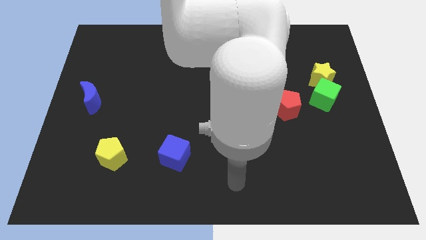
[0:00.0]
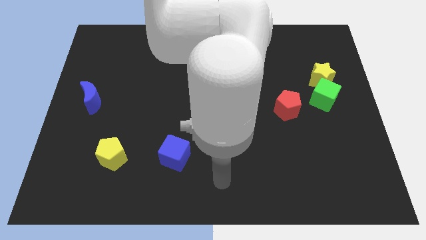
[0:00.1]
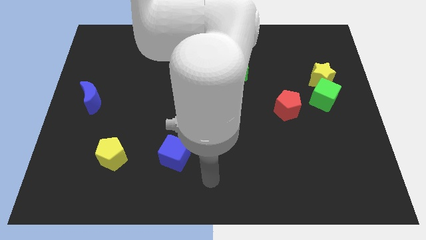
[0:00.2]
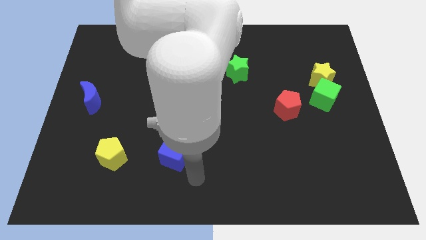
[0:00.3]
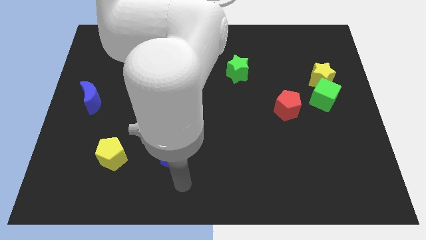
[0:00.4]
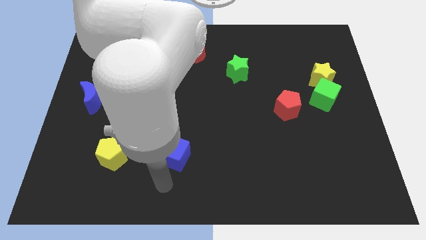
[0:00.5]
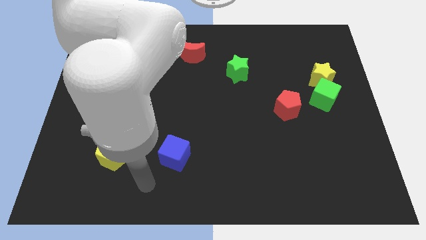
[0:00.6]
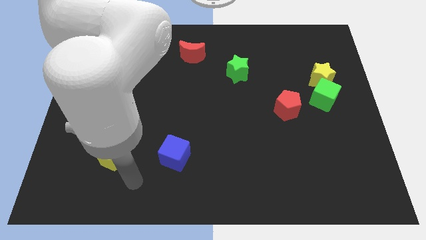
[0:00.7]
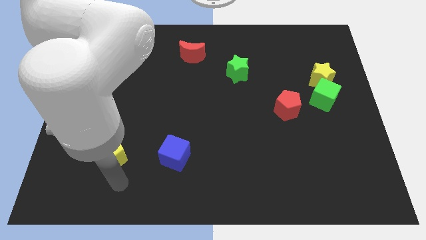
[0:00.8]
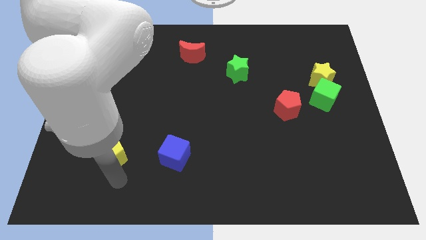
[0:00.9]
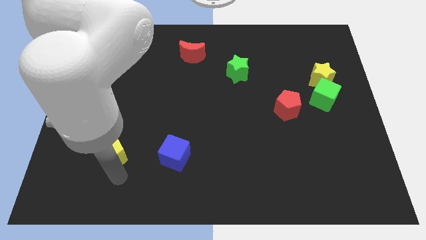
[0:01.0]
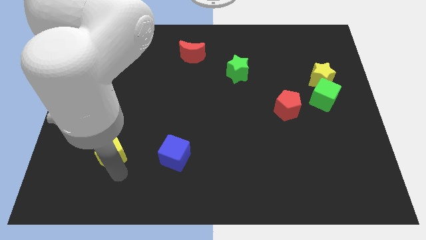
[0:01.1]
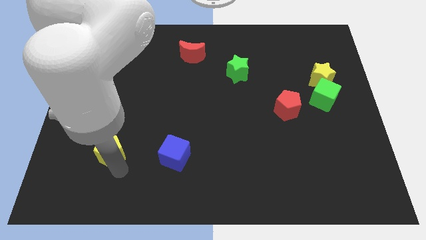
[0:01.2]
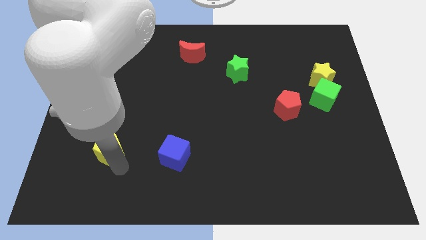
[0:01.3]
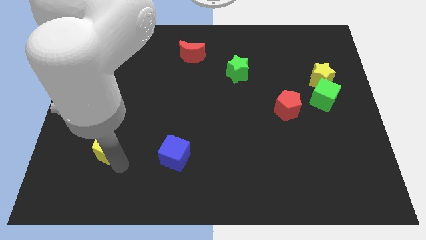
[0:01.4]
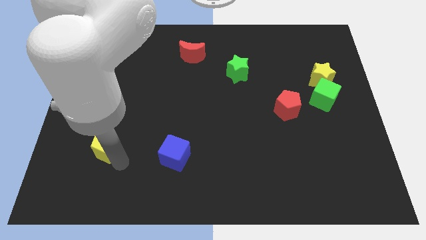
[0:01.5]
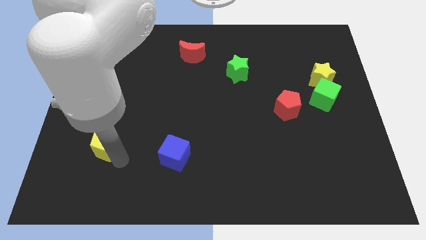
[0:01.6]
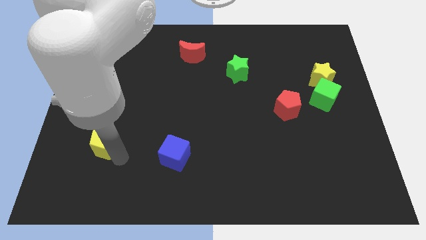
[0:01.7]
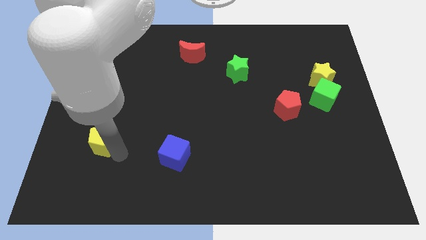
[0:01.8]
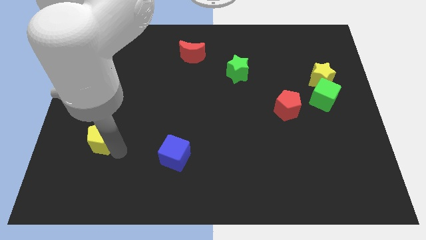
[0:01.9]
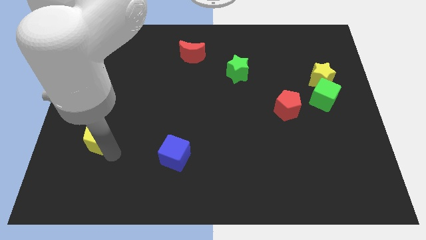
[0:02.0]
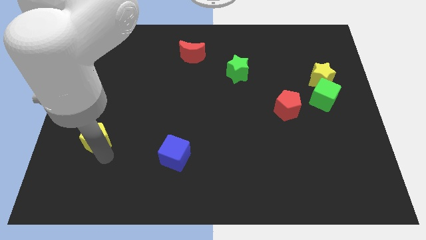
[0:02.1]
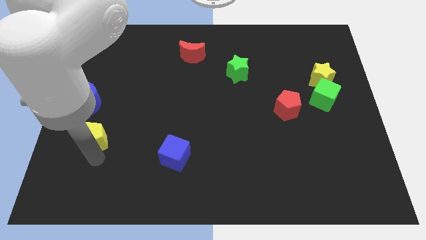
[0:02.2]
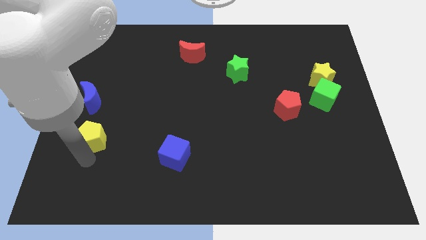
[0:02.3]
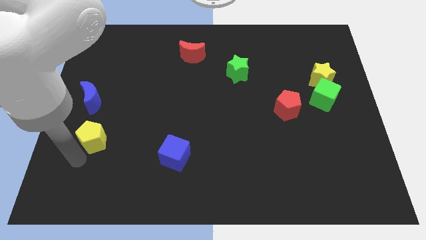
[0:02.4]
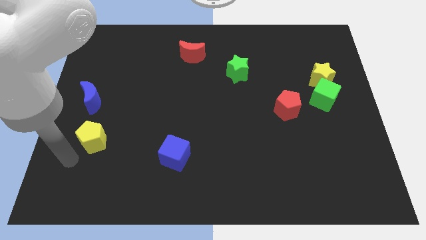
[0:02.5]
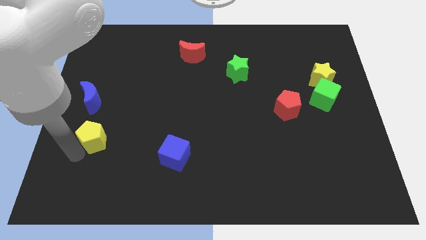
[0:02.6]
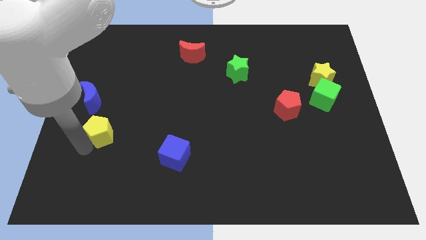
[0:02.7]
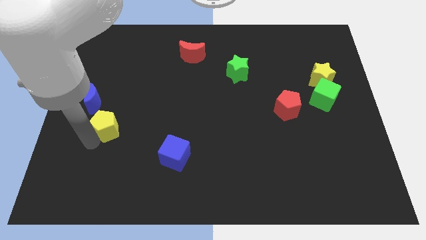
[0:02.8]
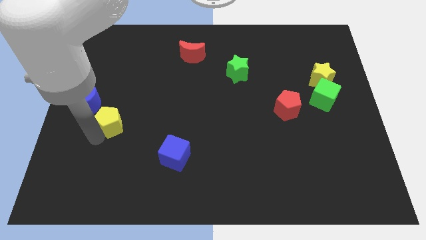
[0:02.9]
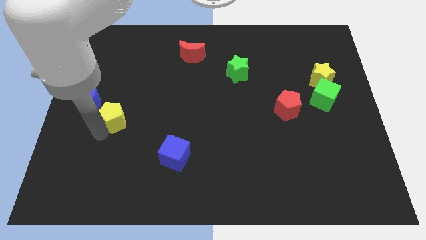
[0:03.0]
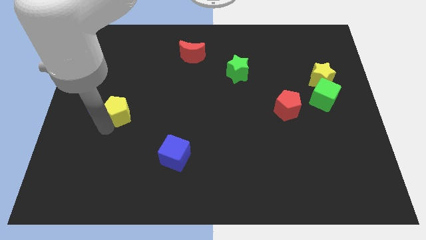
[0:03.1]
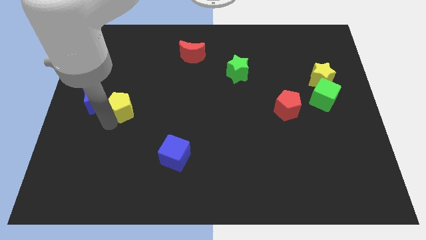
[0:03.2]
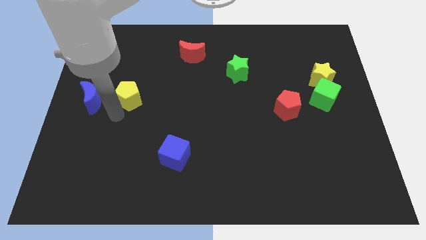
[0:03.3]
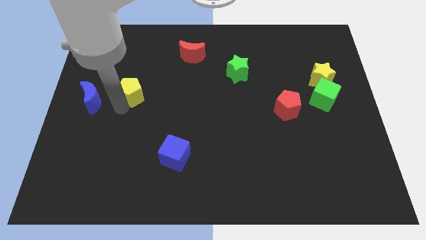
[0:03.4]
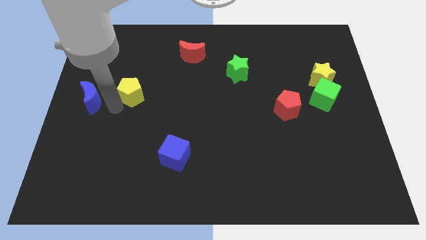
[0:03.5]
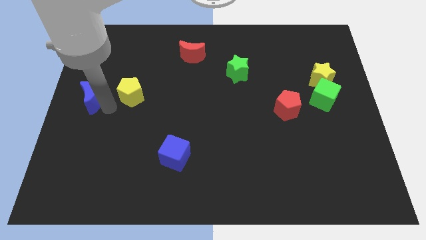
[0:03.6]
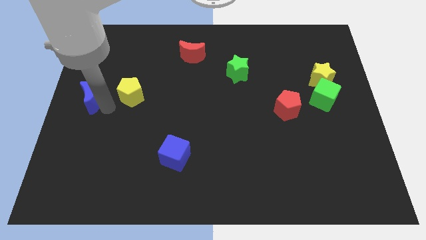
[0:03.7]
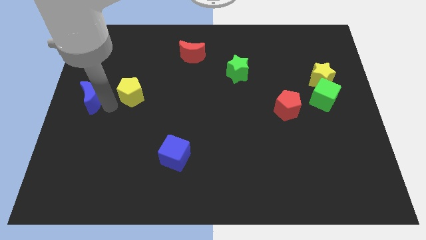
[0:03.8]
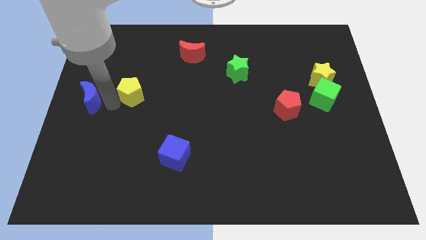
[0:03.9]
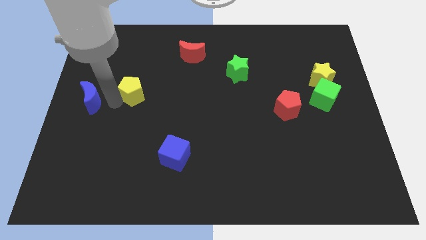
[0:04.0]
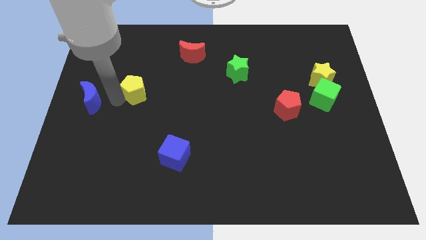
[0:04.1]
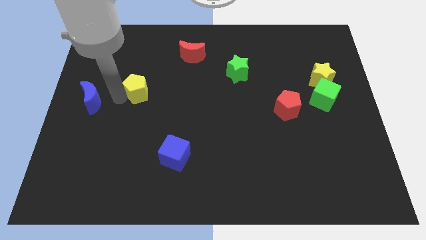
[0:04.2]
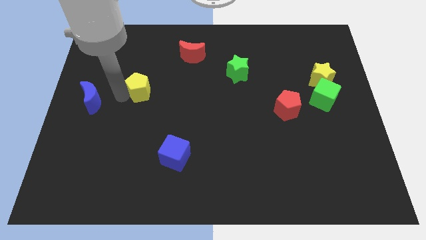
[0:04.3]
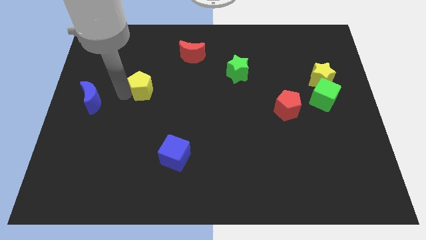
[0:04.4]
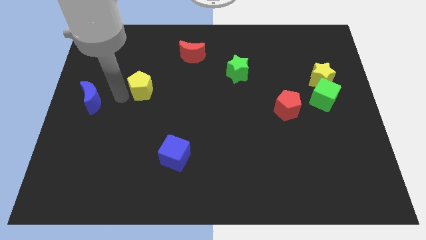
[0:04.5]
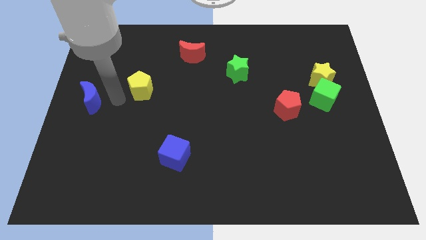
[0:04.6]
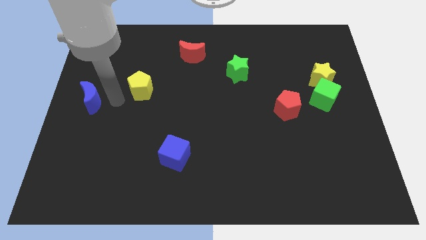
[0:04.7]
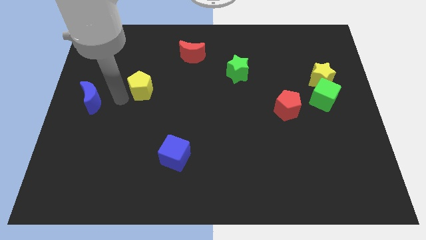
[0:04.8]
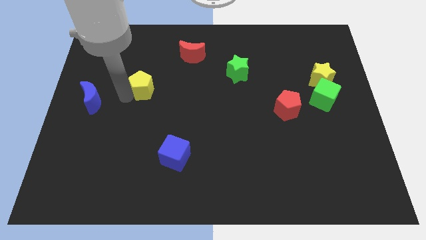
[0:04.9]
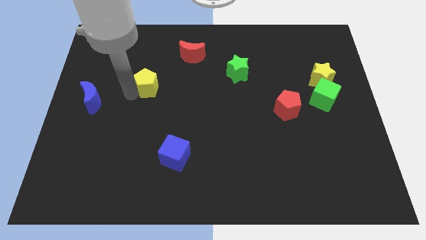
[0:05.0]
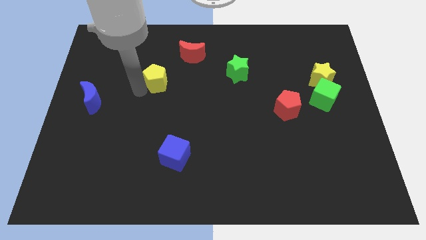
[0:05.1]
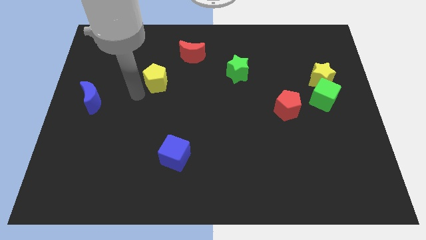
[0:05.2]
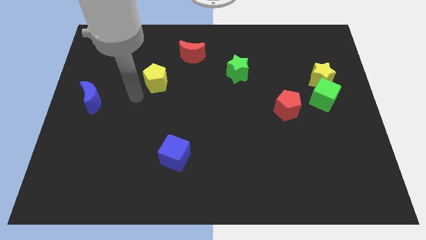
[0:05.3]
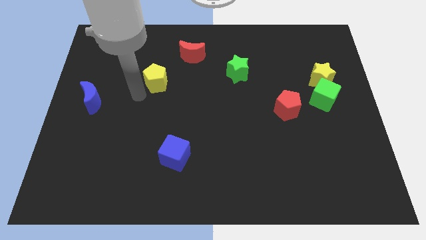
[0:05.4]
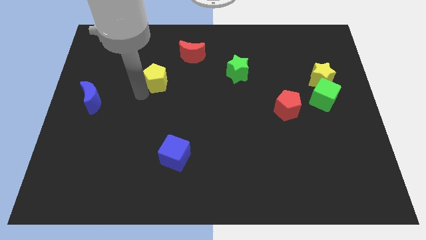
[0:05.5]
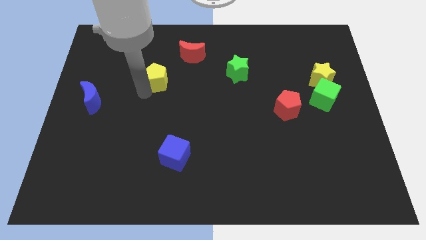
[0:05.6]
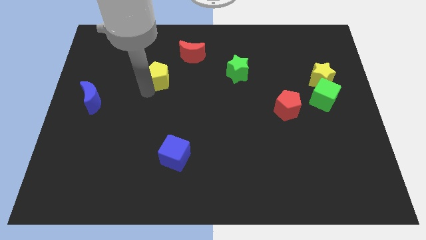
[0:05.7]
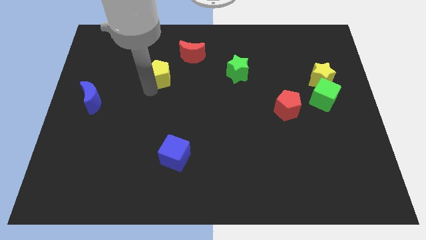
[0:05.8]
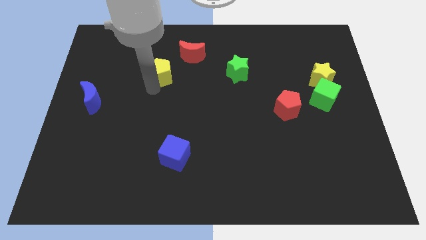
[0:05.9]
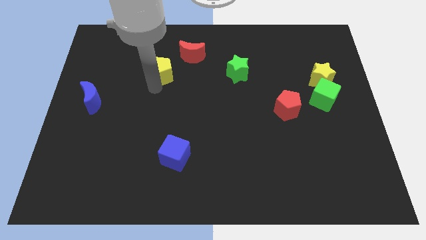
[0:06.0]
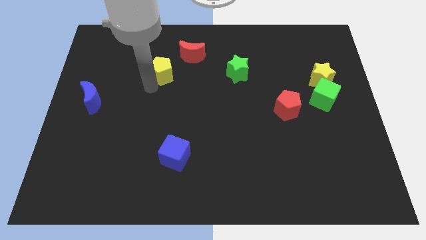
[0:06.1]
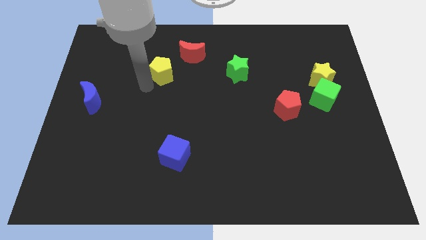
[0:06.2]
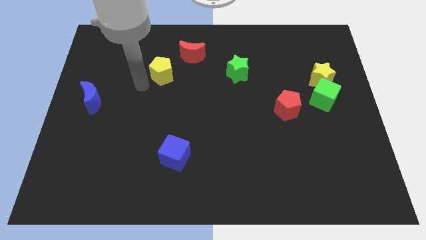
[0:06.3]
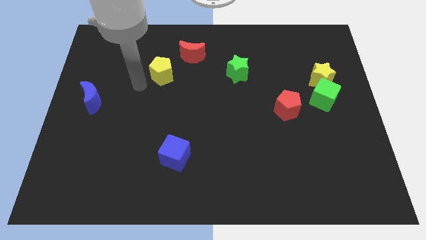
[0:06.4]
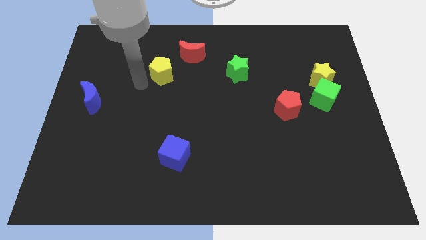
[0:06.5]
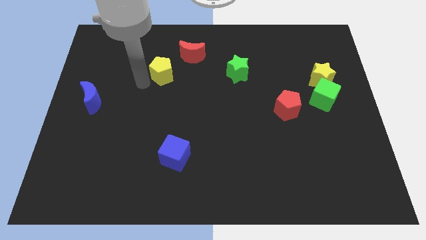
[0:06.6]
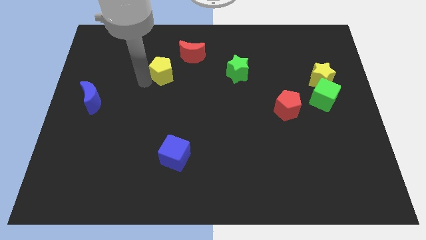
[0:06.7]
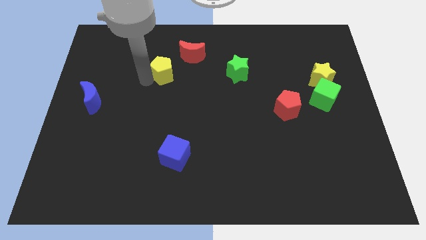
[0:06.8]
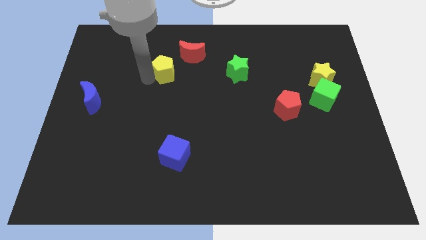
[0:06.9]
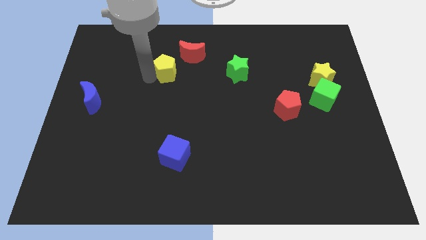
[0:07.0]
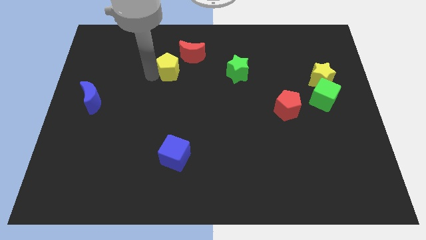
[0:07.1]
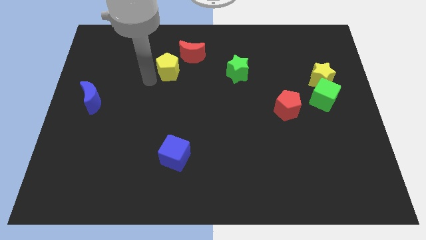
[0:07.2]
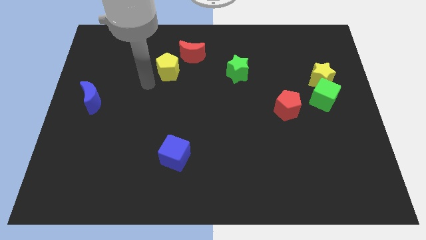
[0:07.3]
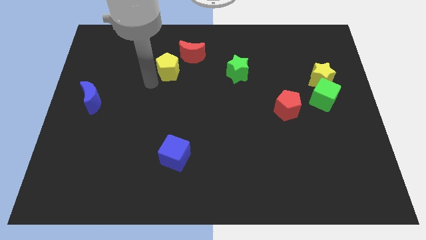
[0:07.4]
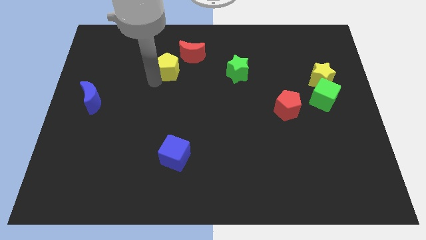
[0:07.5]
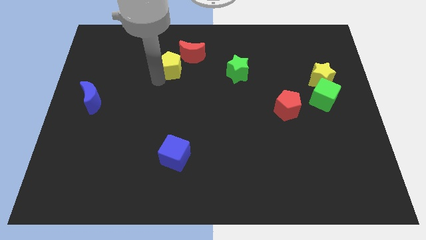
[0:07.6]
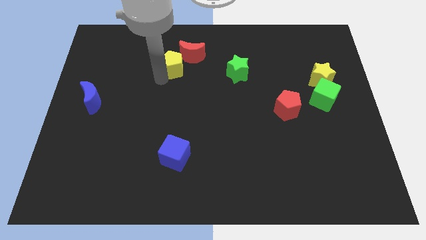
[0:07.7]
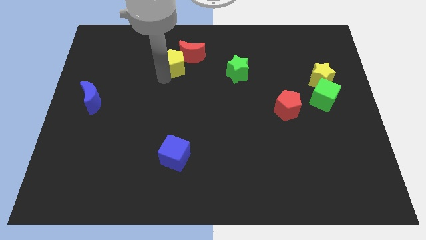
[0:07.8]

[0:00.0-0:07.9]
slide the yellow pentagon towards the red moon
